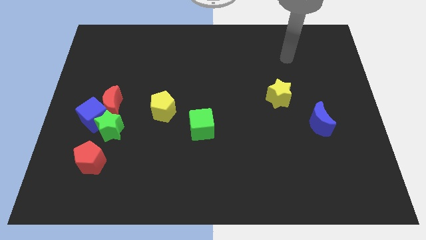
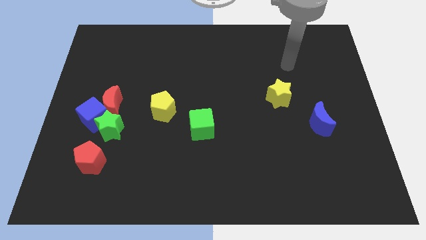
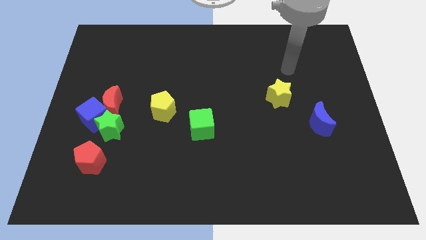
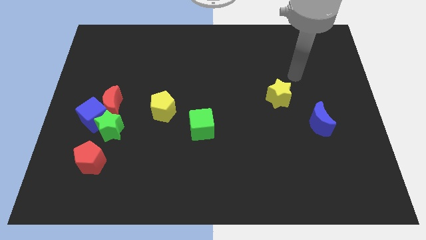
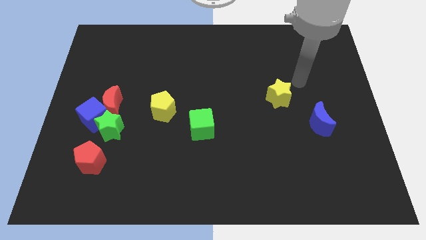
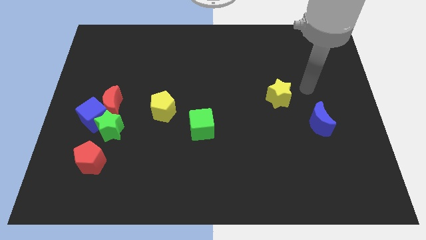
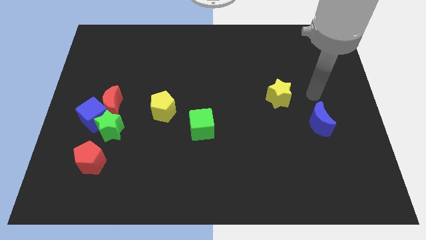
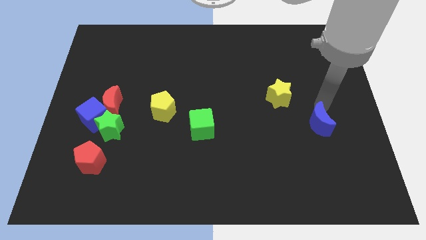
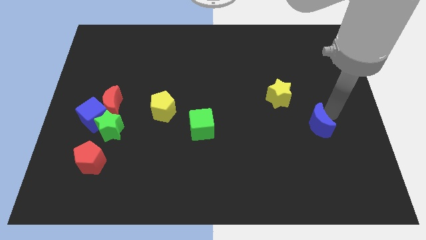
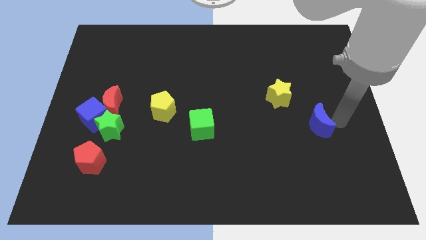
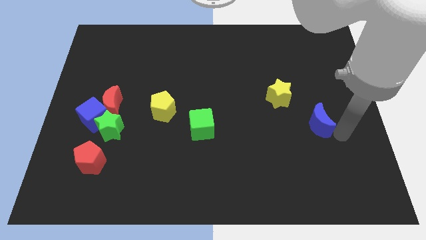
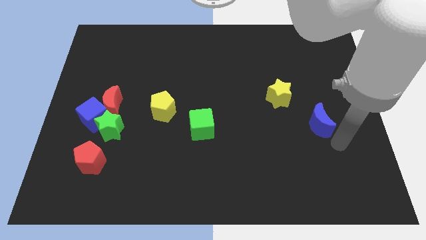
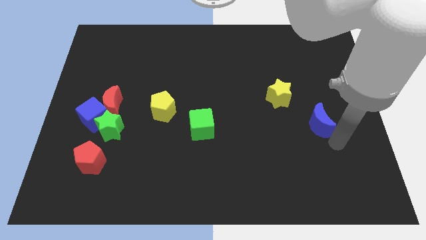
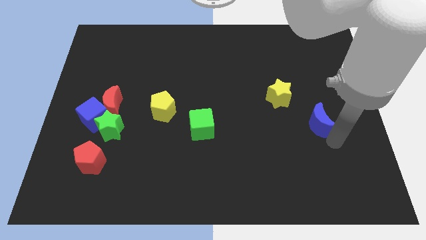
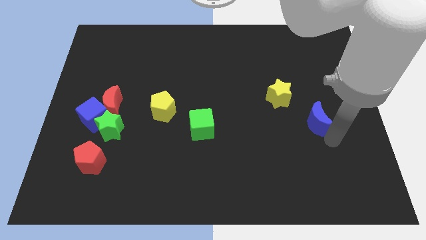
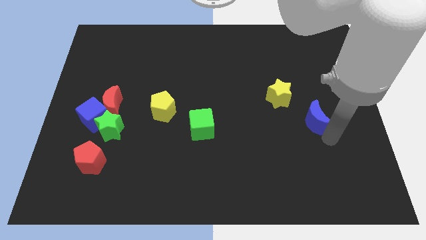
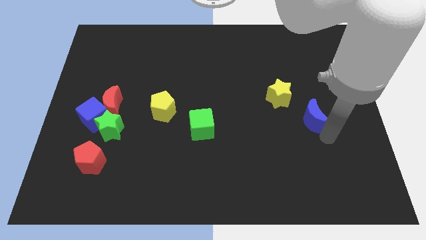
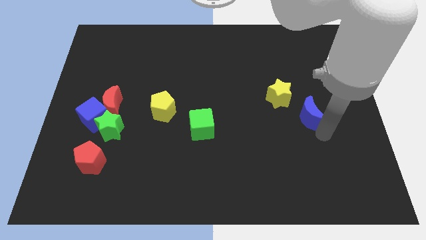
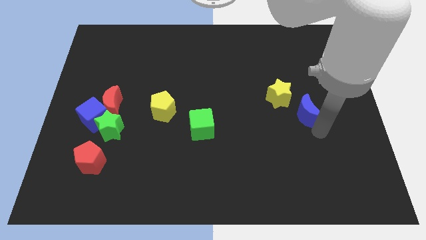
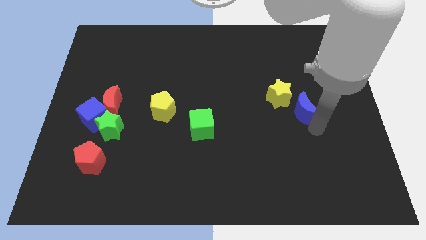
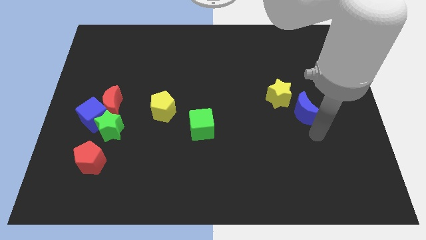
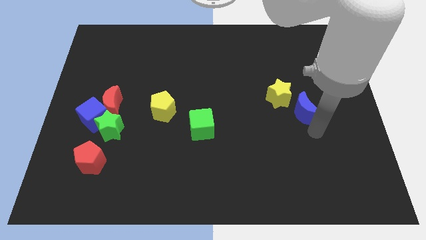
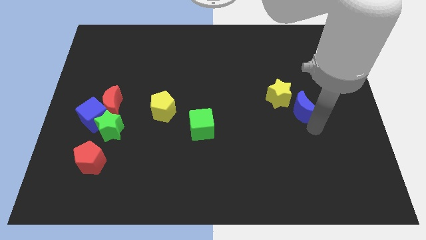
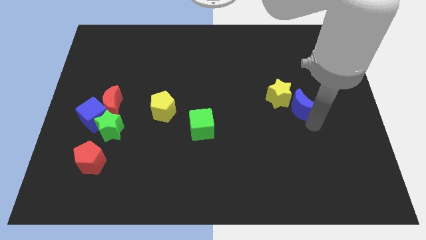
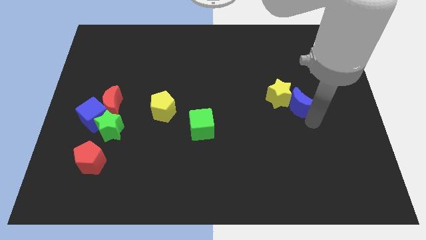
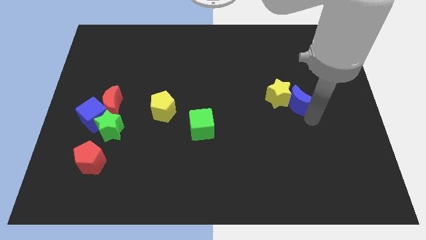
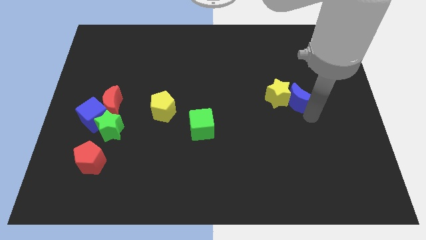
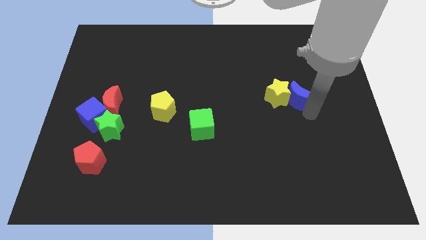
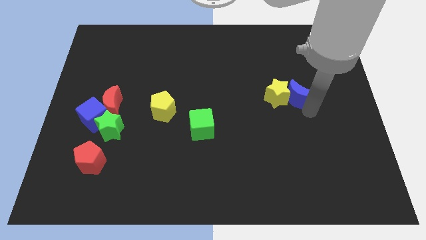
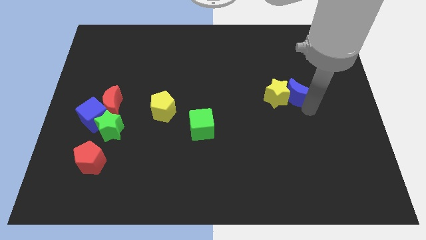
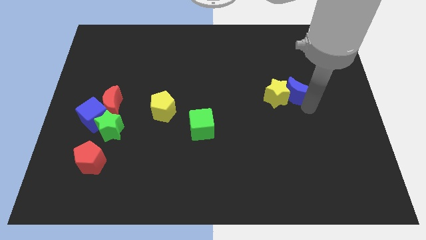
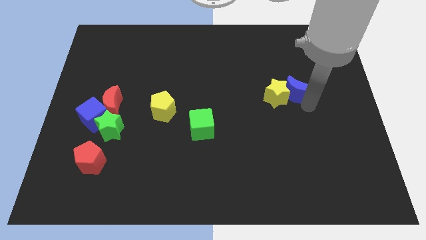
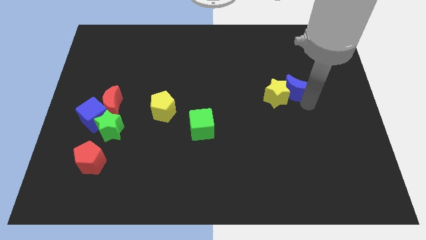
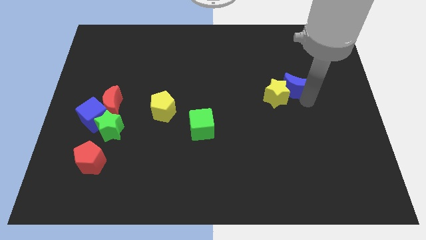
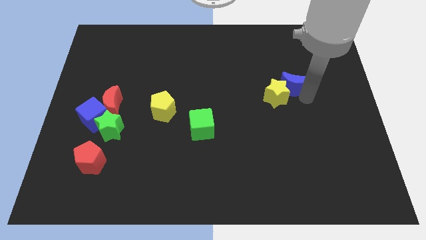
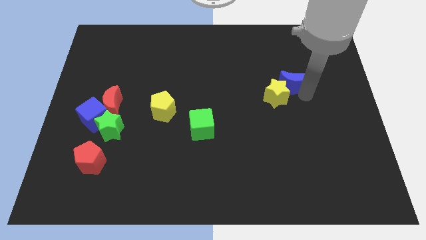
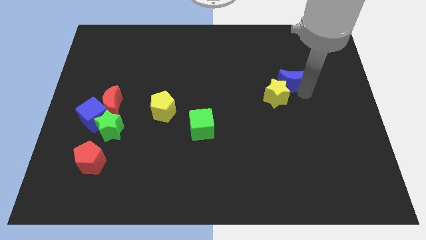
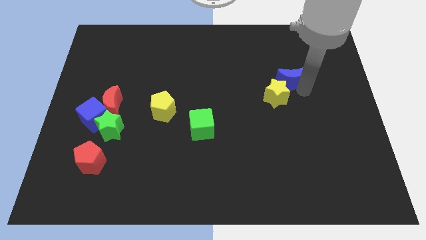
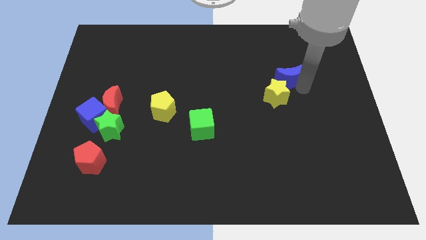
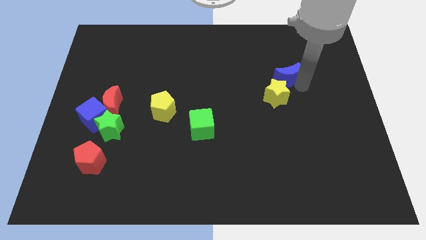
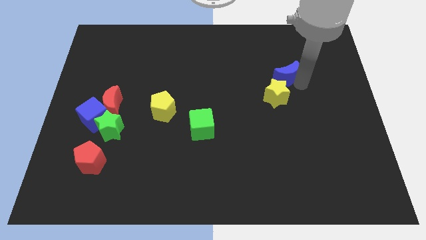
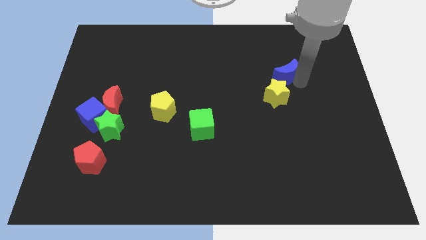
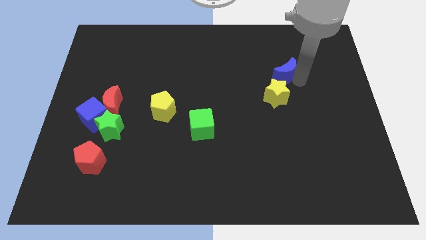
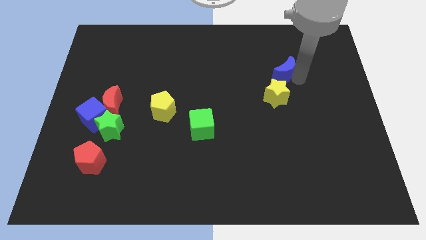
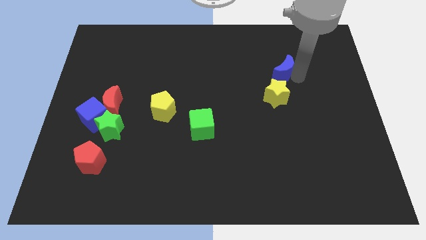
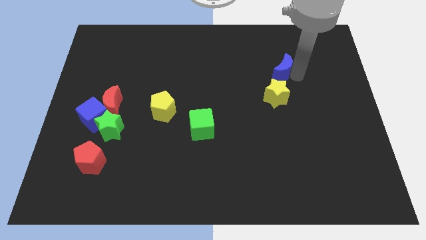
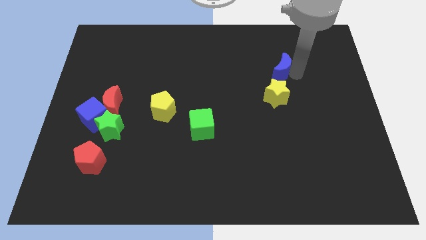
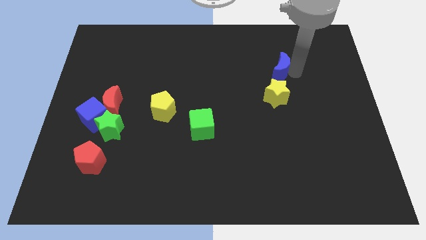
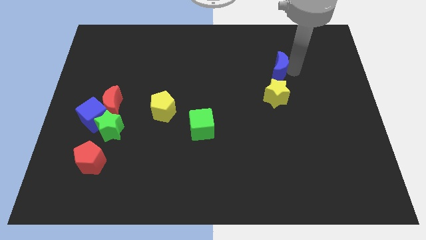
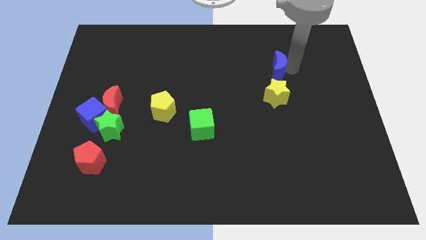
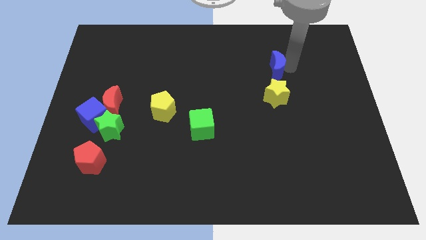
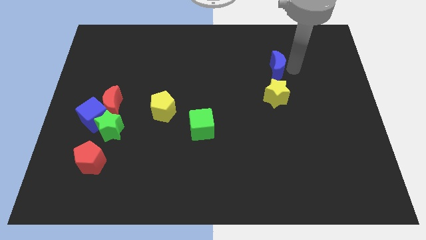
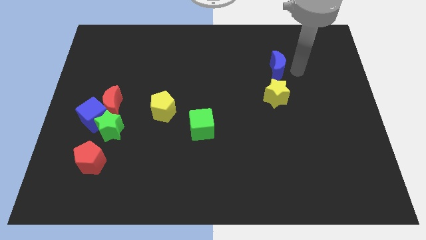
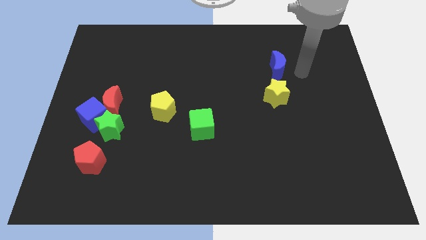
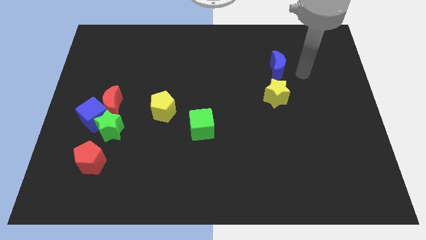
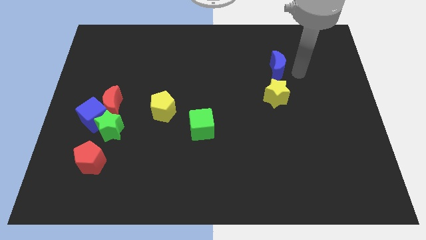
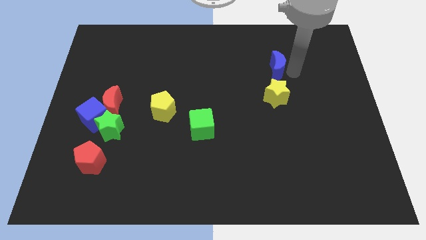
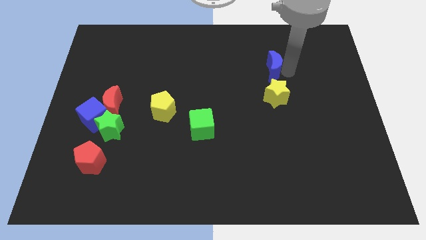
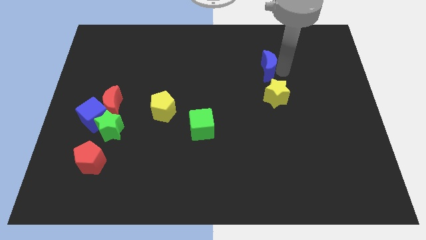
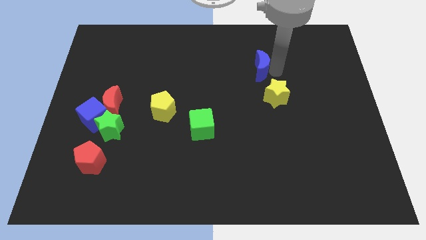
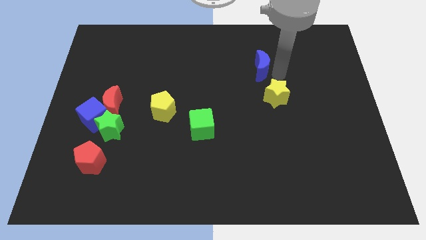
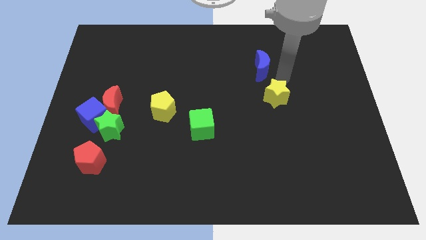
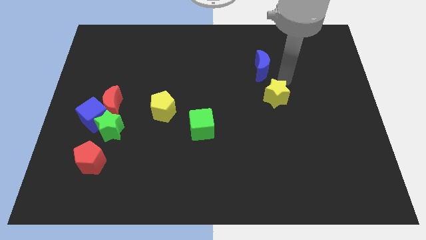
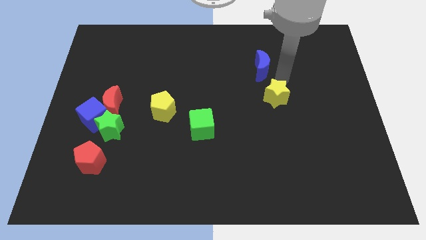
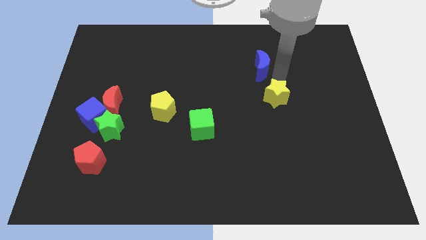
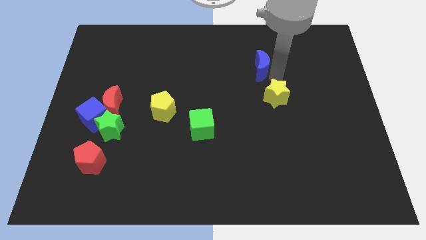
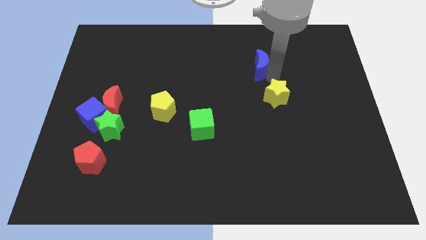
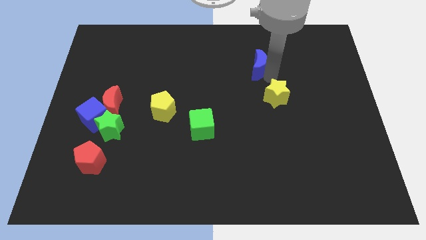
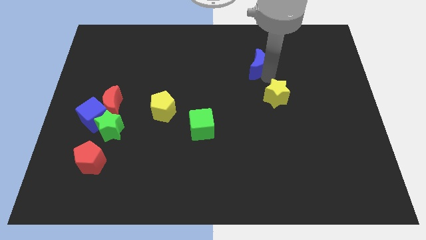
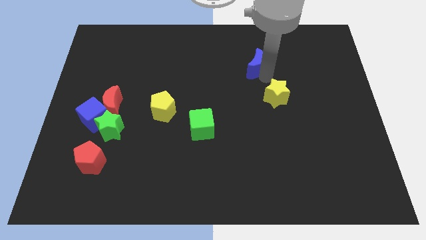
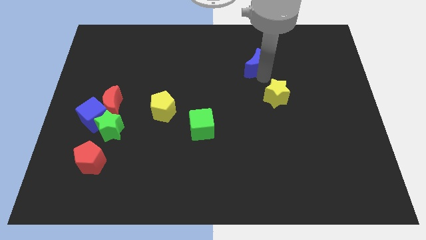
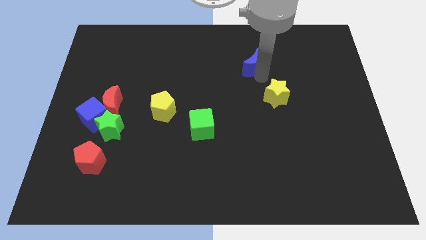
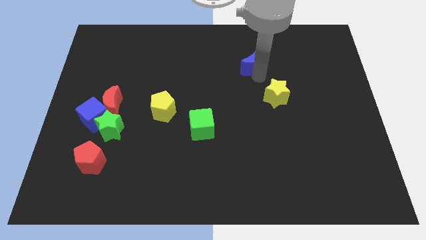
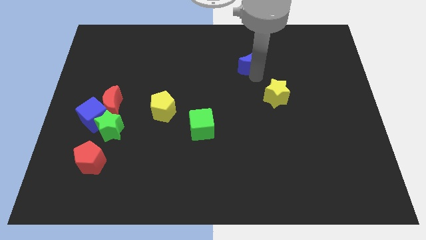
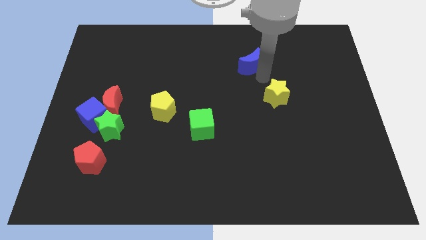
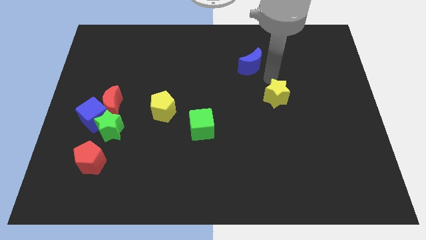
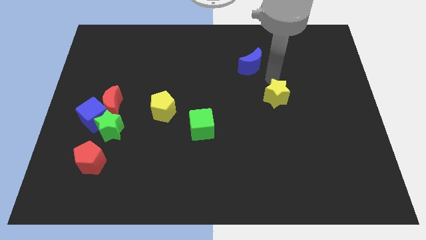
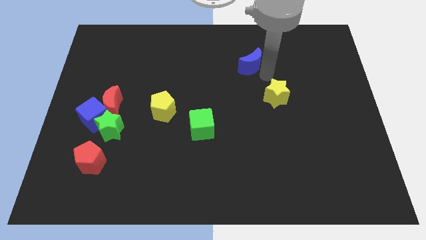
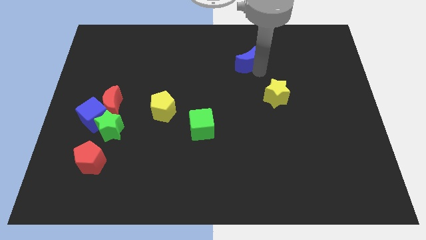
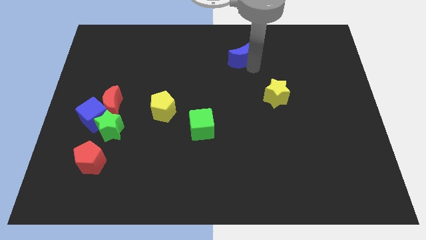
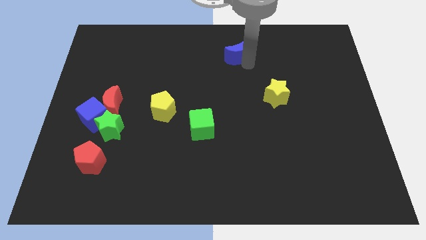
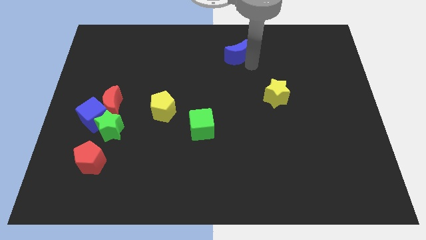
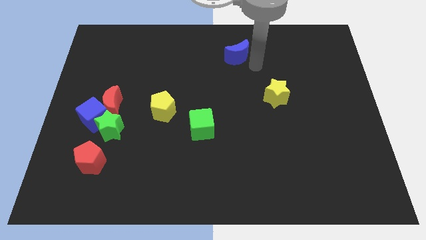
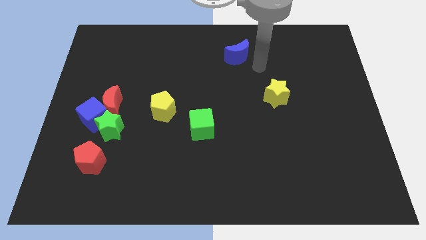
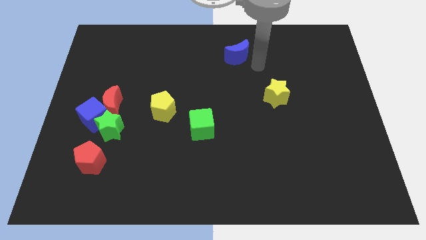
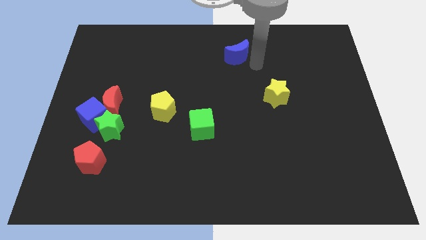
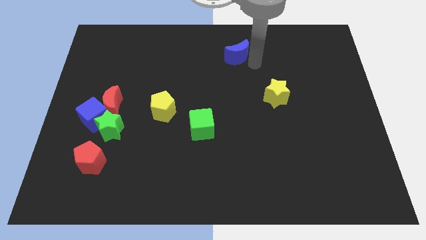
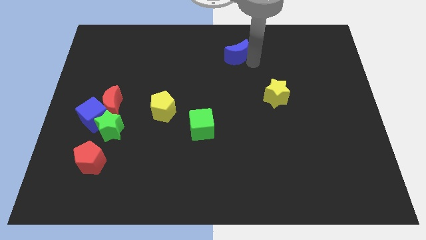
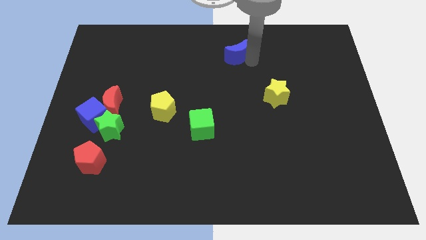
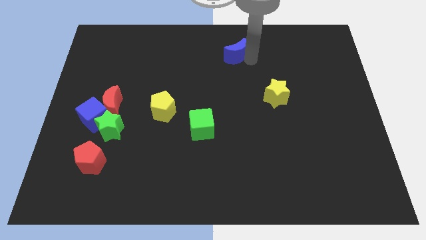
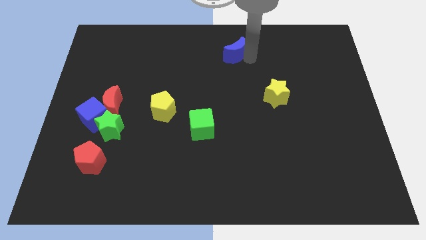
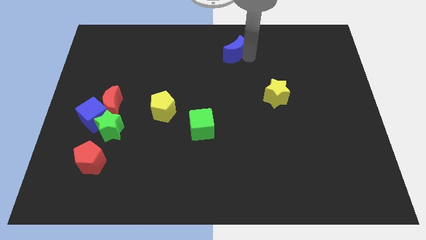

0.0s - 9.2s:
push the blue moon to the top
